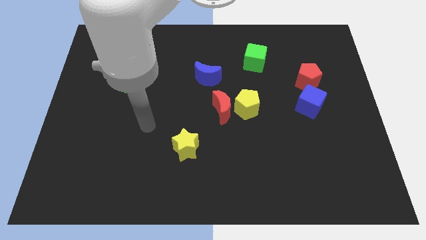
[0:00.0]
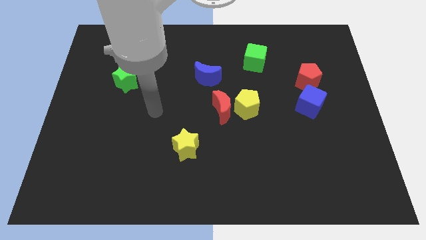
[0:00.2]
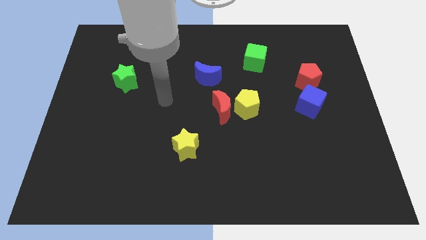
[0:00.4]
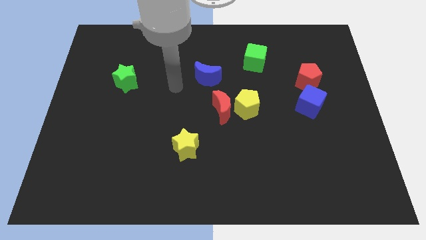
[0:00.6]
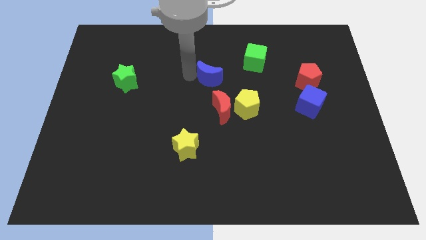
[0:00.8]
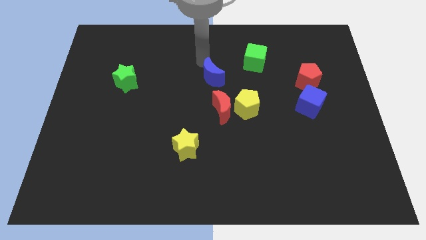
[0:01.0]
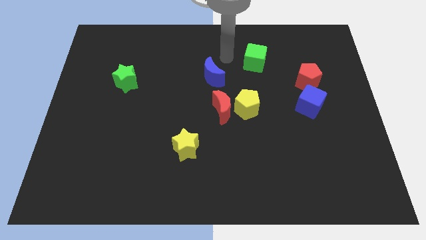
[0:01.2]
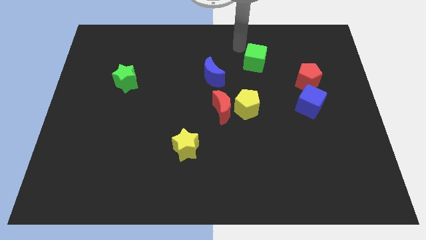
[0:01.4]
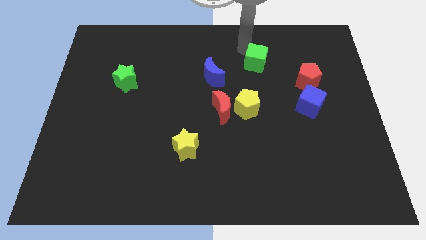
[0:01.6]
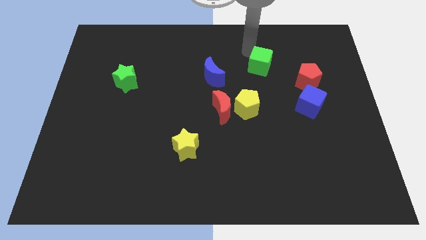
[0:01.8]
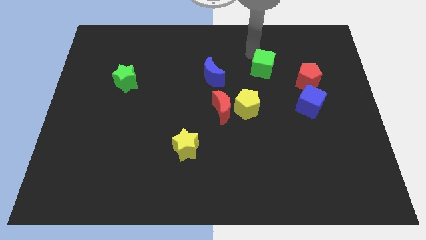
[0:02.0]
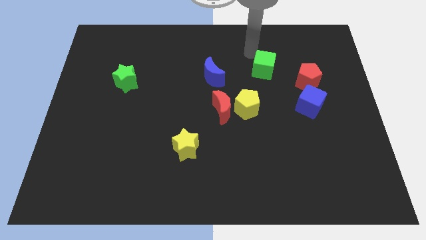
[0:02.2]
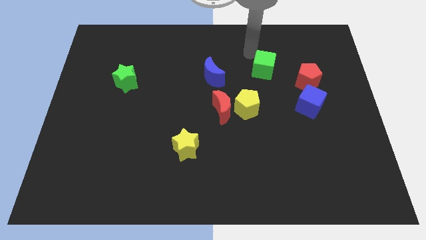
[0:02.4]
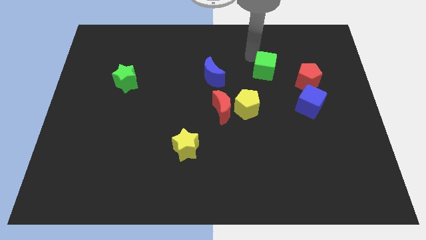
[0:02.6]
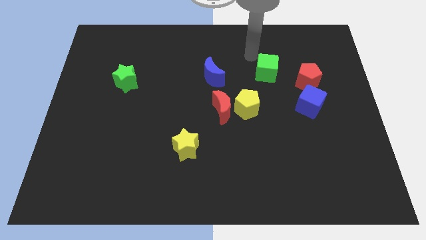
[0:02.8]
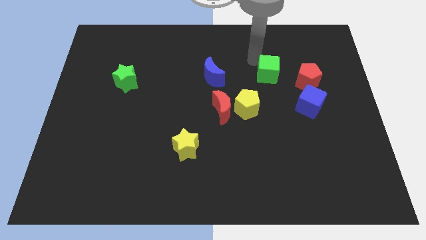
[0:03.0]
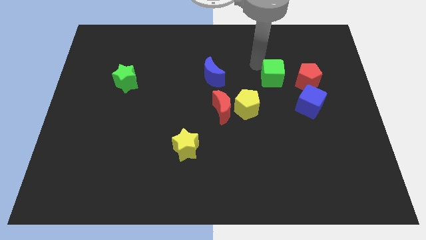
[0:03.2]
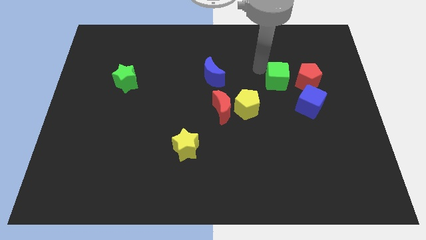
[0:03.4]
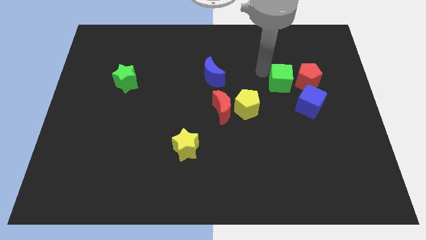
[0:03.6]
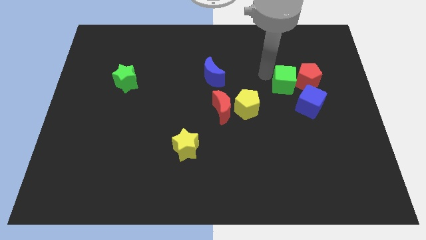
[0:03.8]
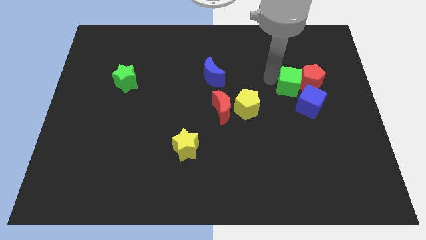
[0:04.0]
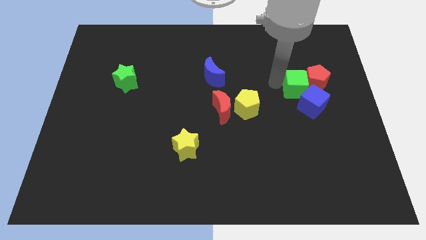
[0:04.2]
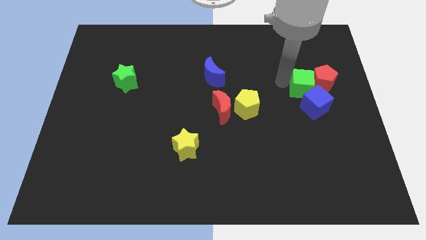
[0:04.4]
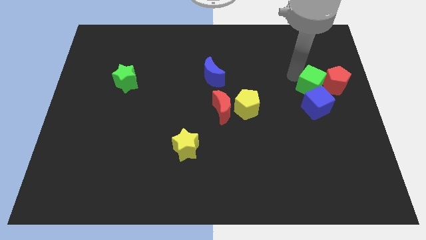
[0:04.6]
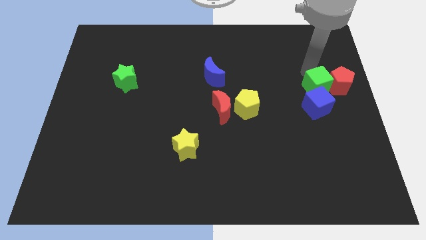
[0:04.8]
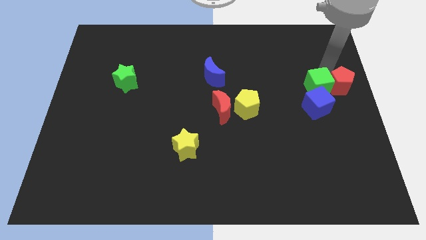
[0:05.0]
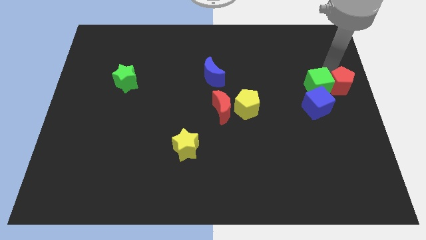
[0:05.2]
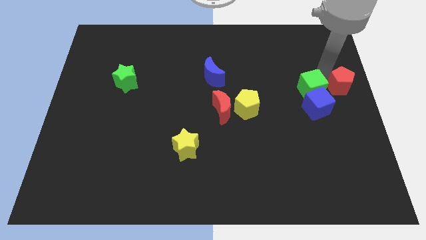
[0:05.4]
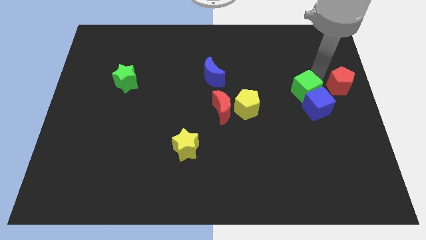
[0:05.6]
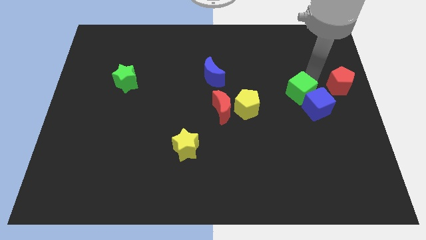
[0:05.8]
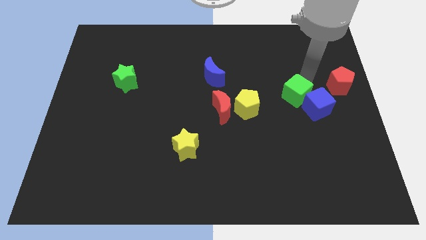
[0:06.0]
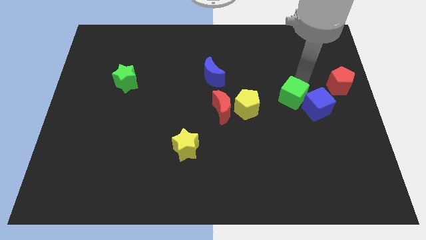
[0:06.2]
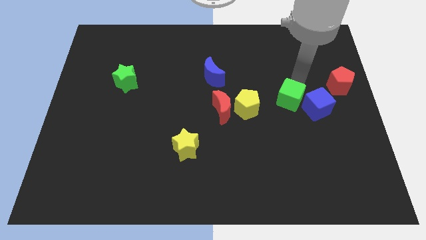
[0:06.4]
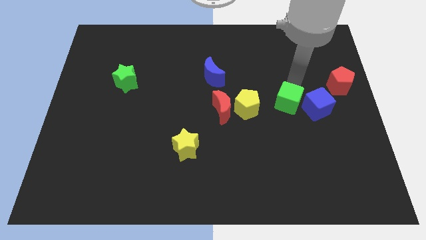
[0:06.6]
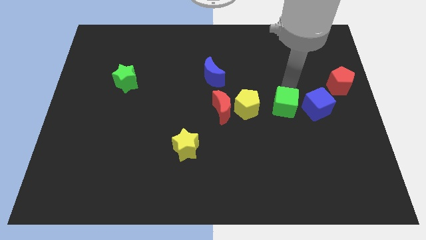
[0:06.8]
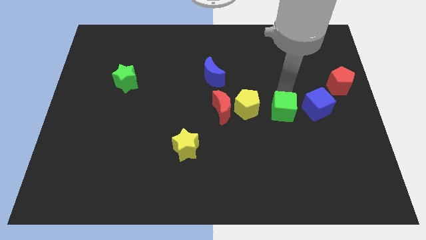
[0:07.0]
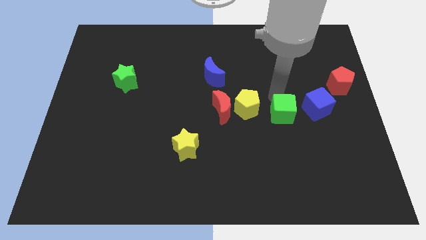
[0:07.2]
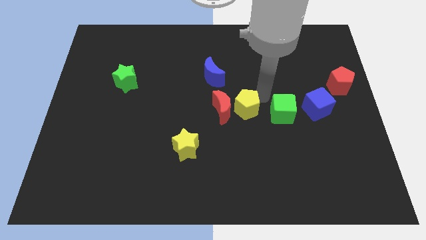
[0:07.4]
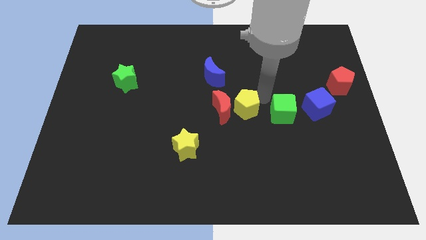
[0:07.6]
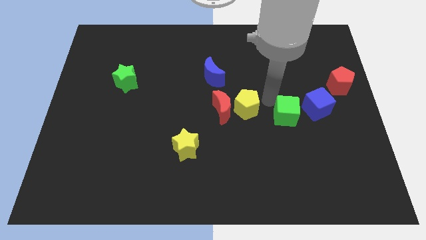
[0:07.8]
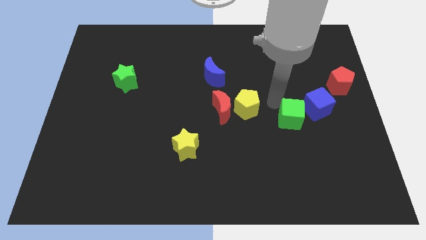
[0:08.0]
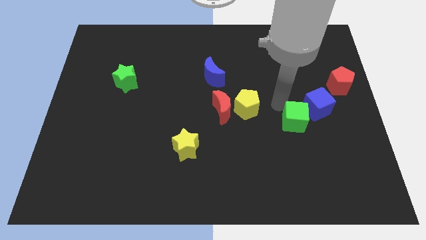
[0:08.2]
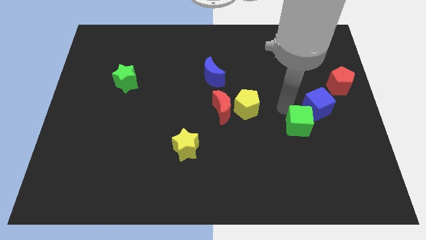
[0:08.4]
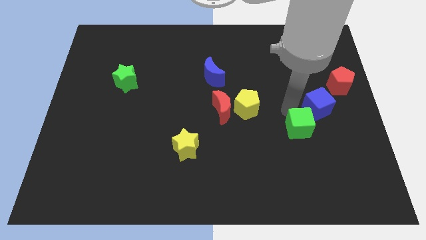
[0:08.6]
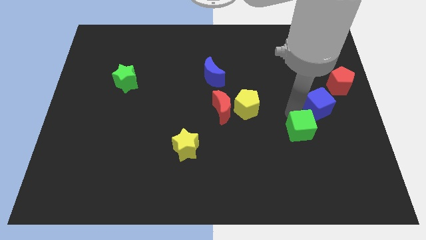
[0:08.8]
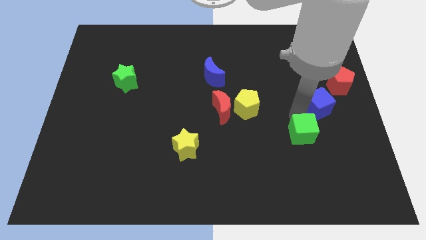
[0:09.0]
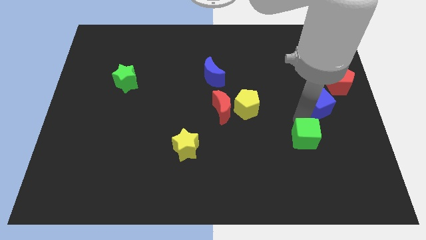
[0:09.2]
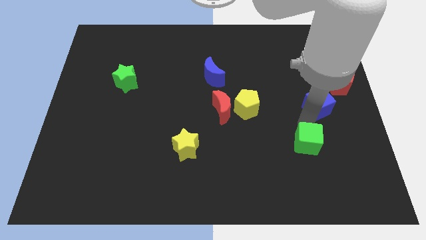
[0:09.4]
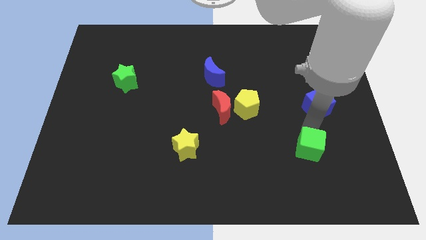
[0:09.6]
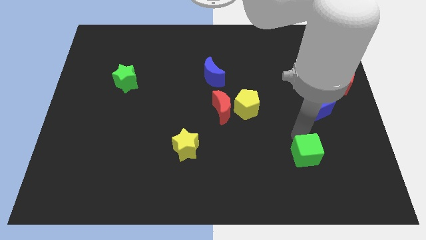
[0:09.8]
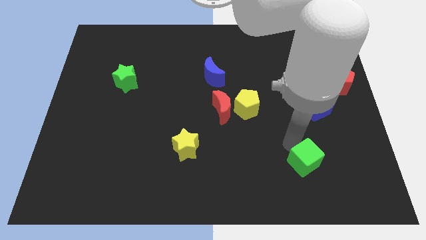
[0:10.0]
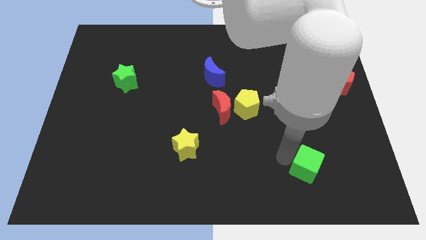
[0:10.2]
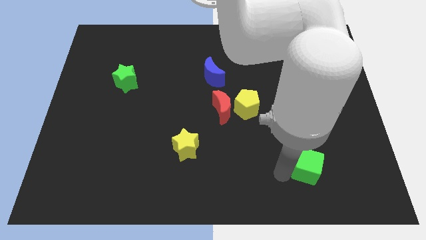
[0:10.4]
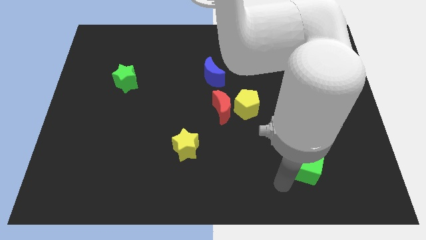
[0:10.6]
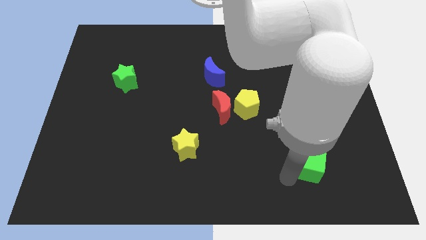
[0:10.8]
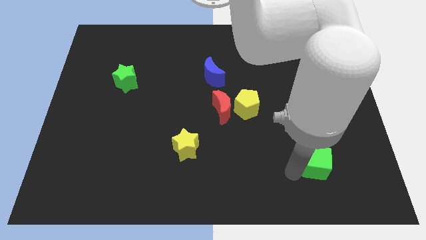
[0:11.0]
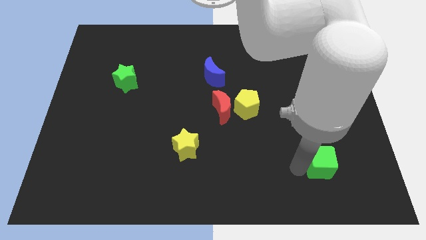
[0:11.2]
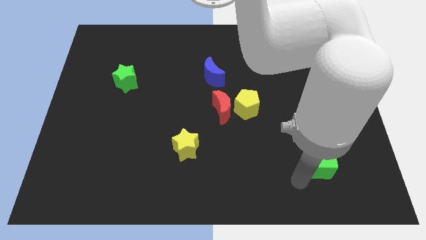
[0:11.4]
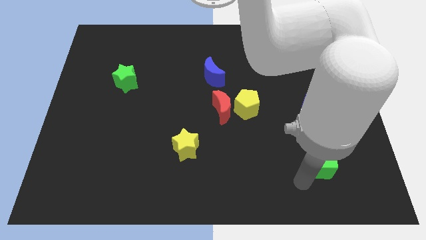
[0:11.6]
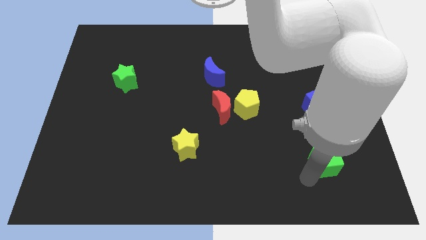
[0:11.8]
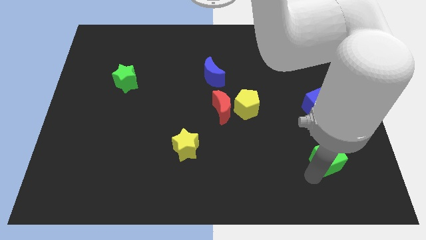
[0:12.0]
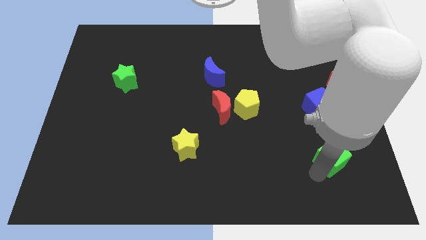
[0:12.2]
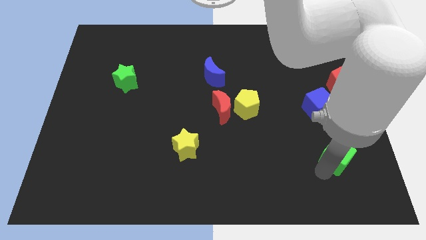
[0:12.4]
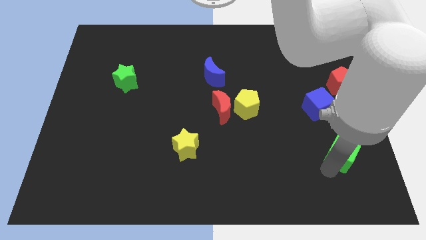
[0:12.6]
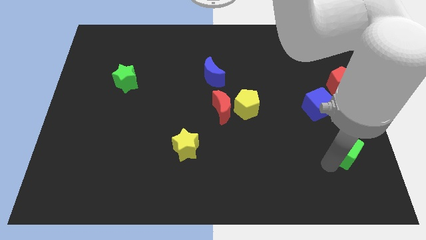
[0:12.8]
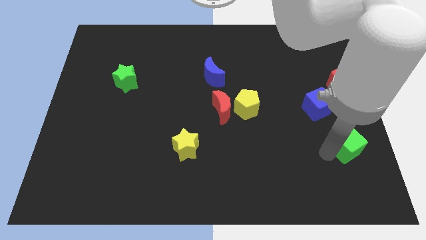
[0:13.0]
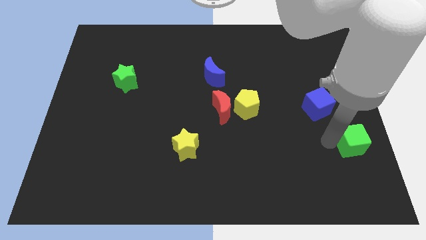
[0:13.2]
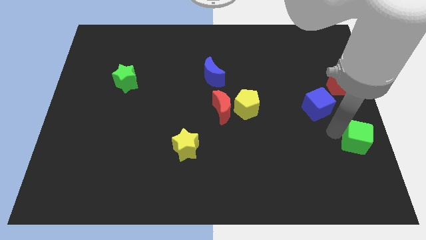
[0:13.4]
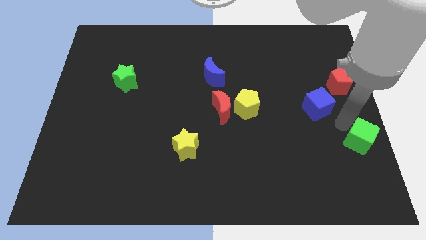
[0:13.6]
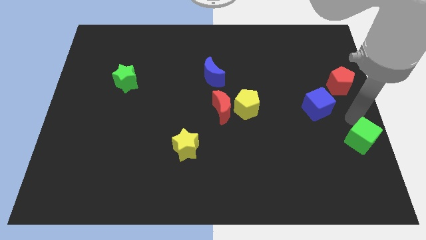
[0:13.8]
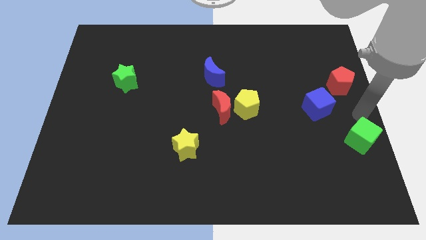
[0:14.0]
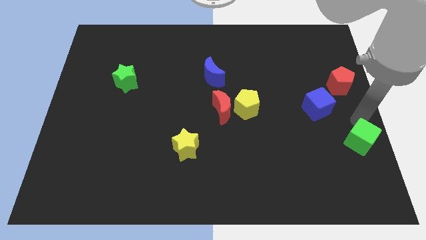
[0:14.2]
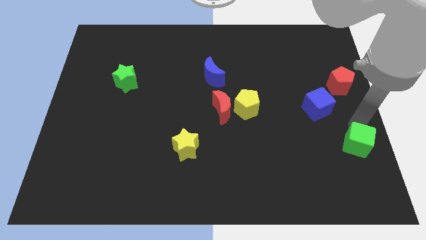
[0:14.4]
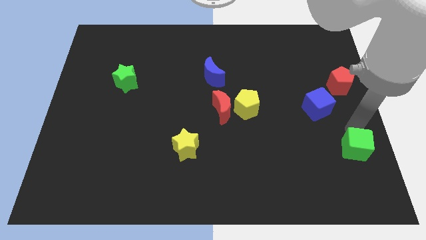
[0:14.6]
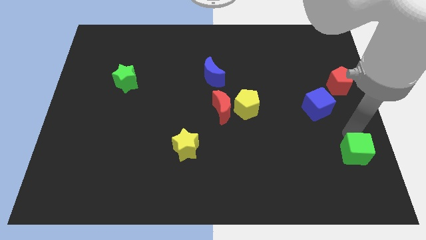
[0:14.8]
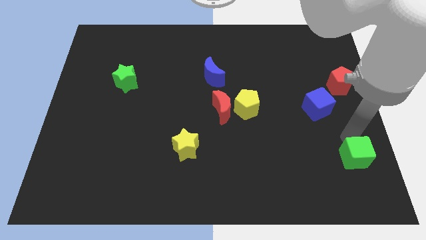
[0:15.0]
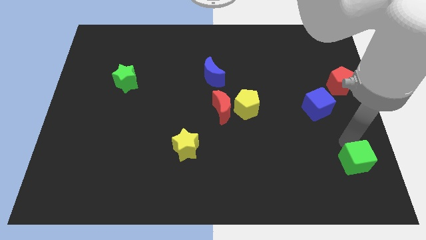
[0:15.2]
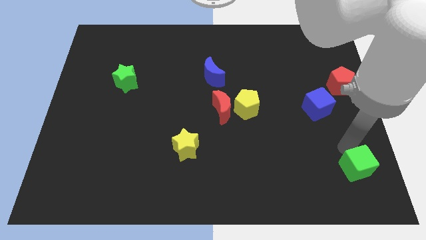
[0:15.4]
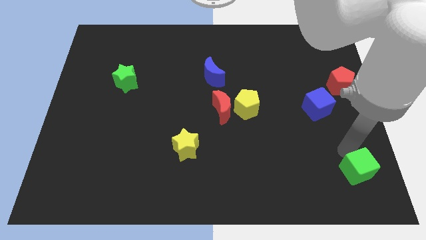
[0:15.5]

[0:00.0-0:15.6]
put the green cube to the bottom right corner
